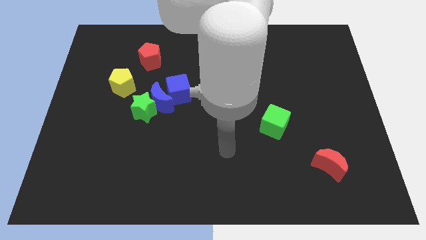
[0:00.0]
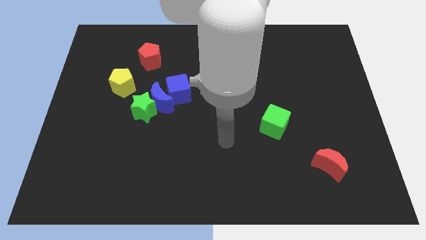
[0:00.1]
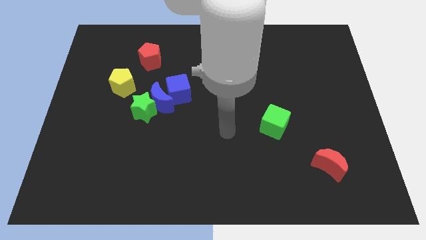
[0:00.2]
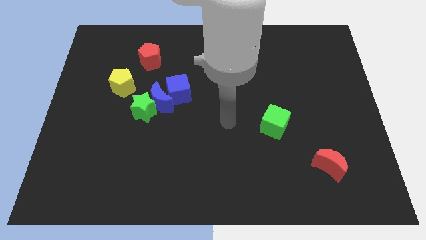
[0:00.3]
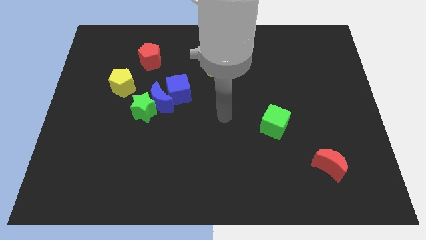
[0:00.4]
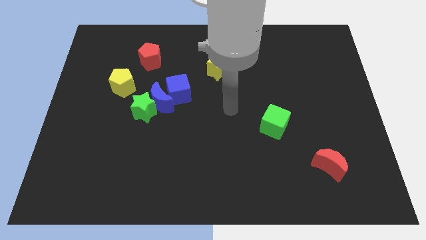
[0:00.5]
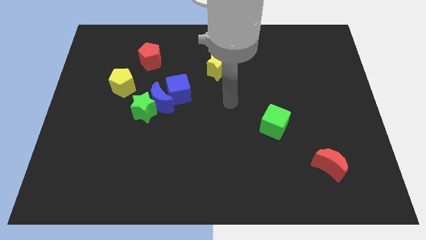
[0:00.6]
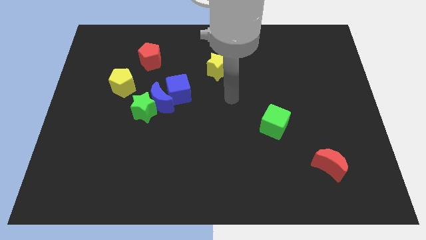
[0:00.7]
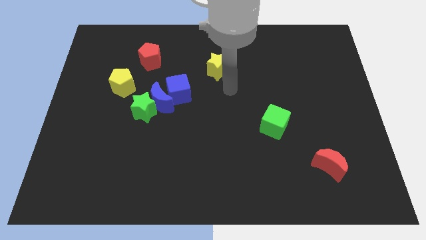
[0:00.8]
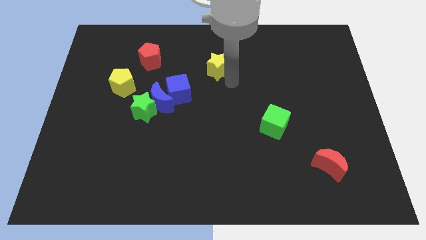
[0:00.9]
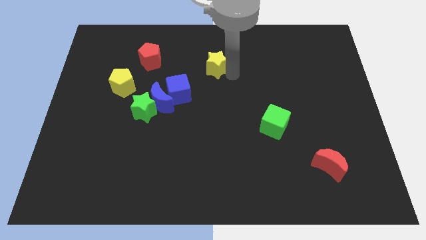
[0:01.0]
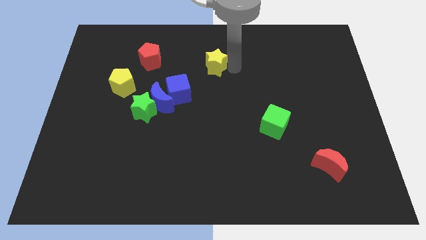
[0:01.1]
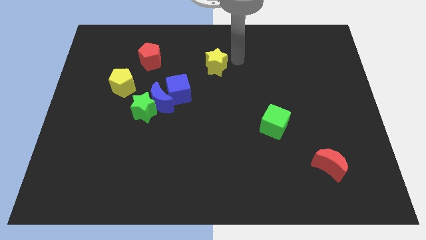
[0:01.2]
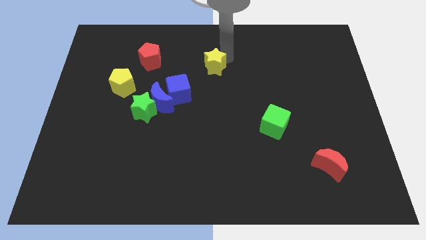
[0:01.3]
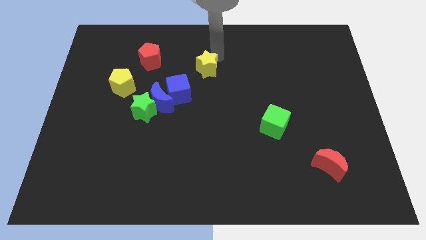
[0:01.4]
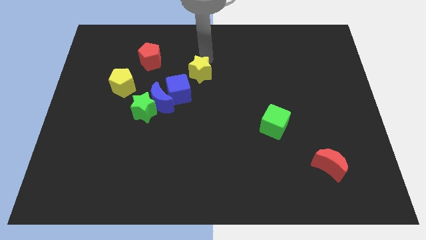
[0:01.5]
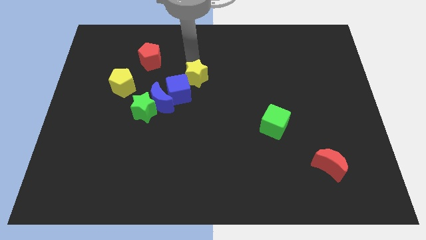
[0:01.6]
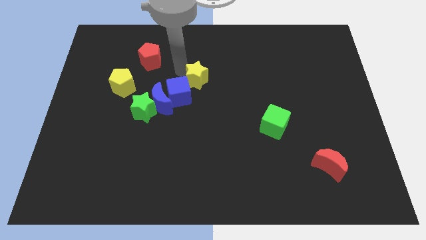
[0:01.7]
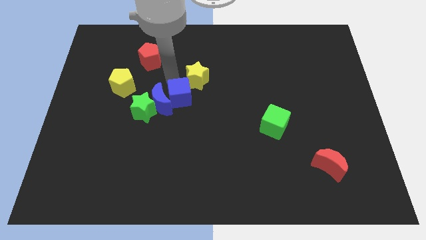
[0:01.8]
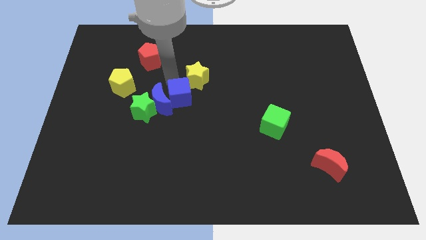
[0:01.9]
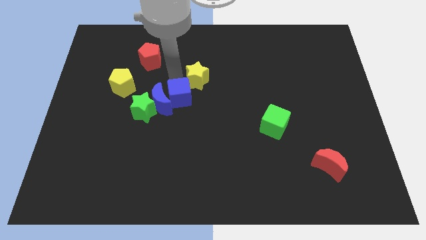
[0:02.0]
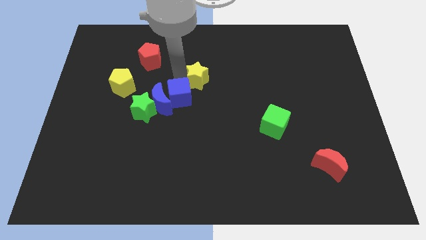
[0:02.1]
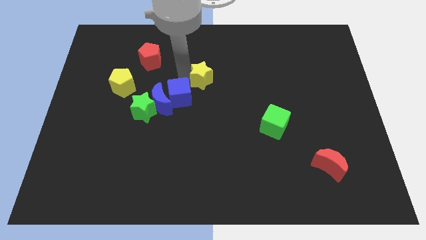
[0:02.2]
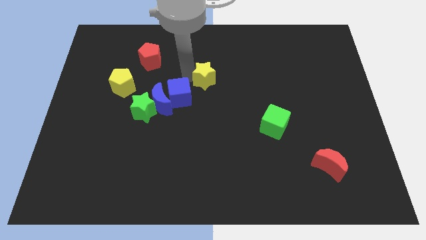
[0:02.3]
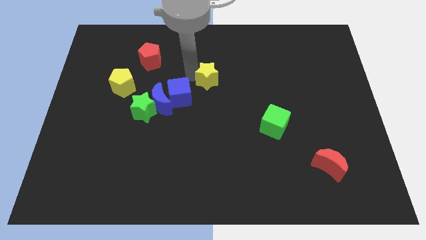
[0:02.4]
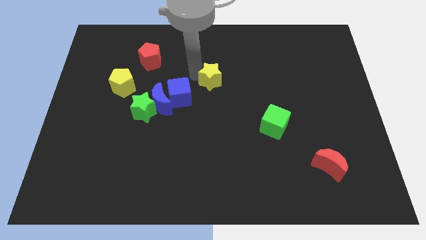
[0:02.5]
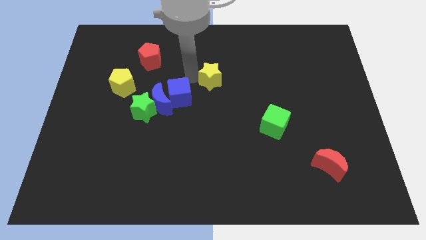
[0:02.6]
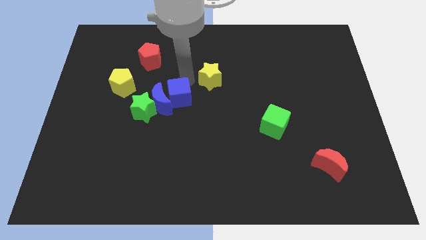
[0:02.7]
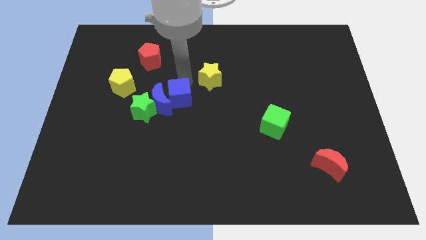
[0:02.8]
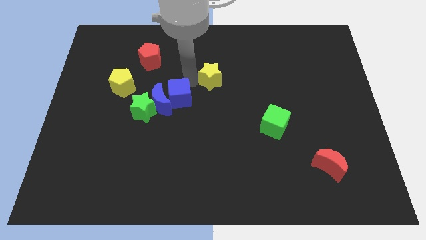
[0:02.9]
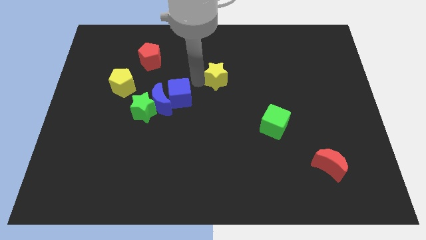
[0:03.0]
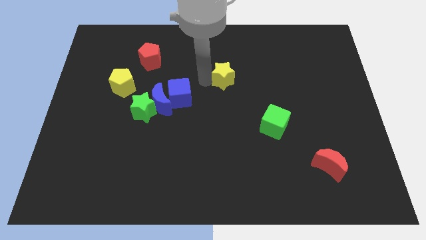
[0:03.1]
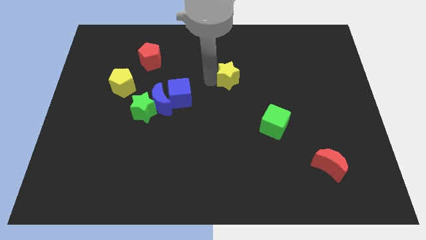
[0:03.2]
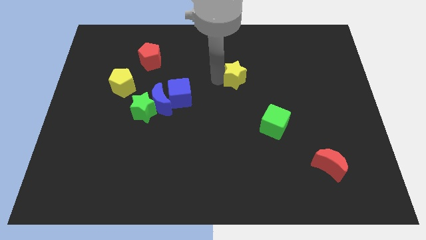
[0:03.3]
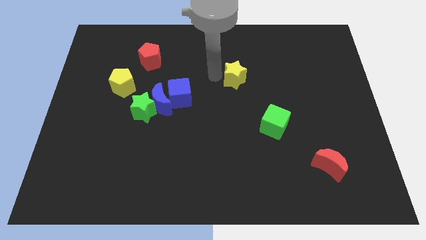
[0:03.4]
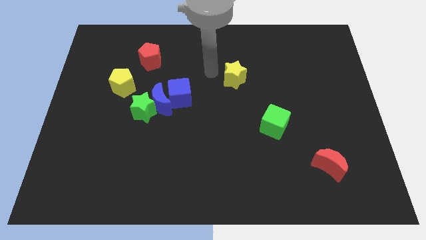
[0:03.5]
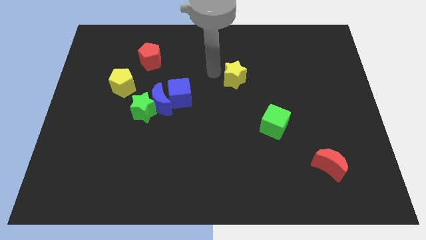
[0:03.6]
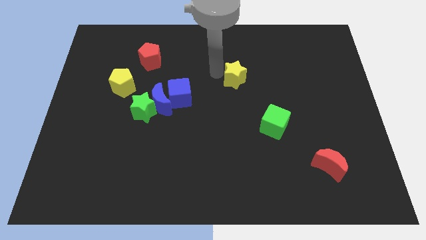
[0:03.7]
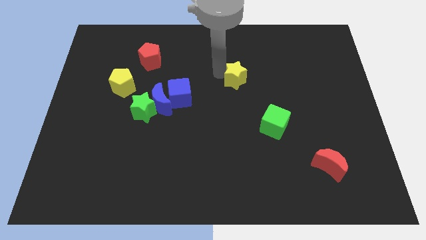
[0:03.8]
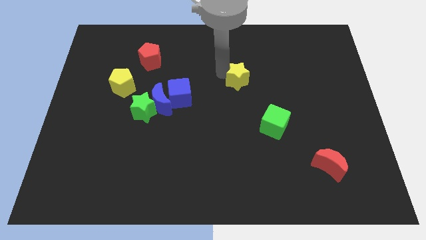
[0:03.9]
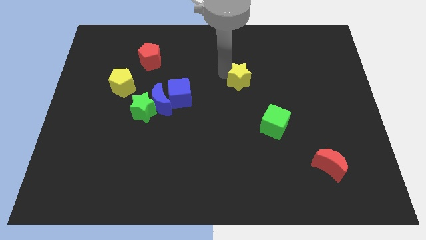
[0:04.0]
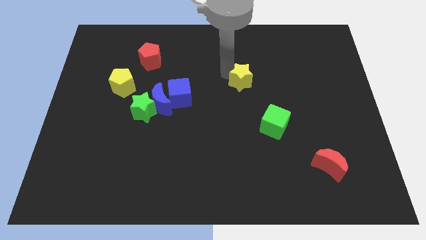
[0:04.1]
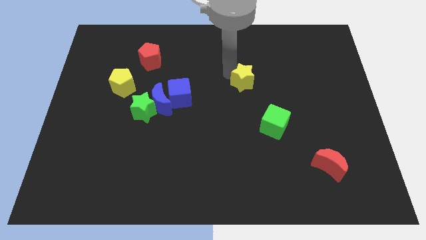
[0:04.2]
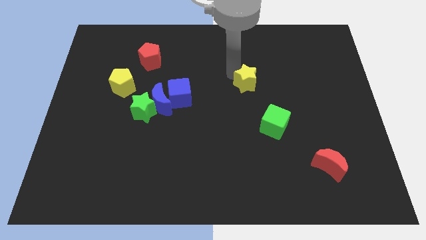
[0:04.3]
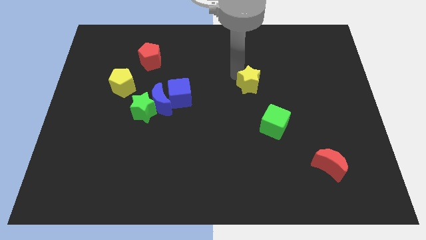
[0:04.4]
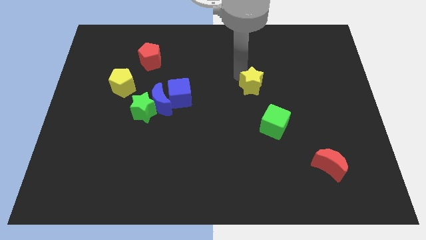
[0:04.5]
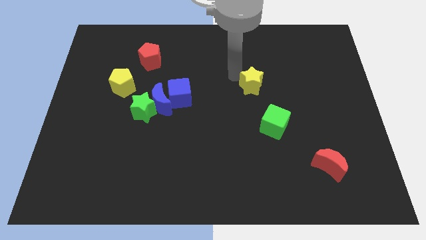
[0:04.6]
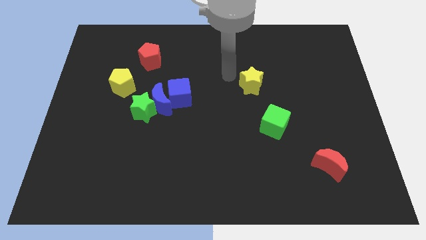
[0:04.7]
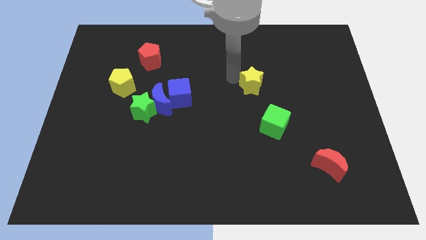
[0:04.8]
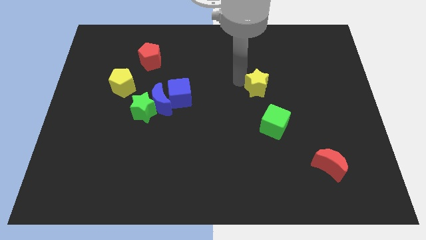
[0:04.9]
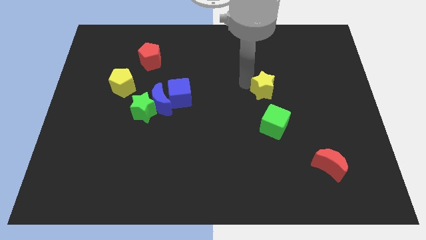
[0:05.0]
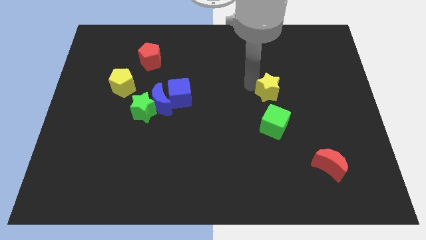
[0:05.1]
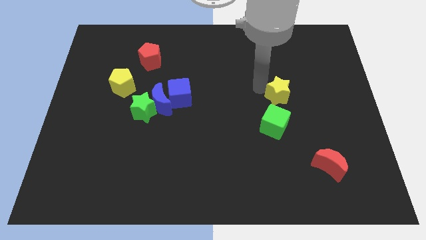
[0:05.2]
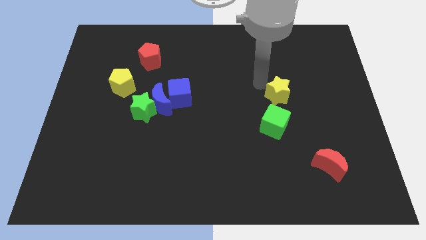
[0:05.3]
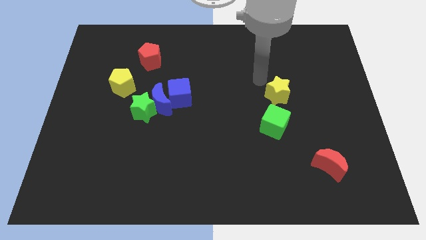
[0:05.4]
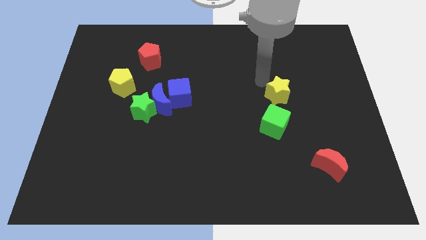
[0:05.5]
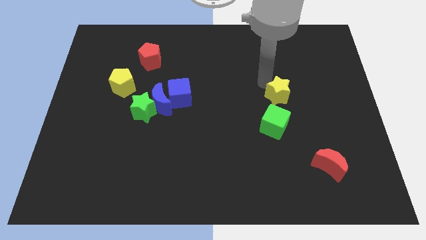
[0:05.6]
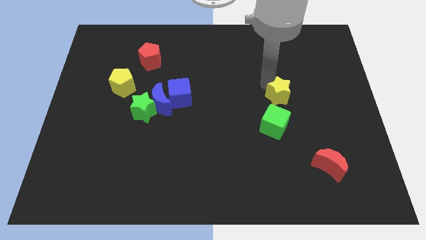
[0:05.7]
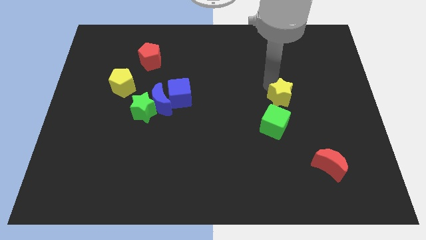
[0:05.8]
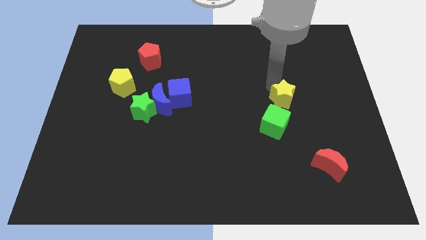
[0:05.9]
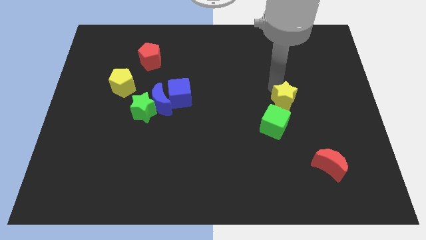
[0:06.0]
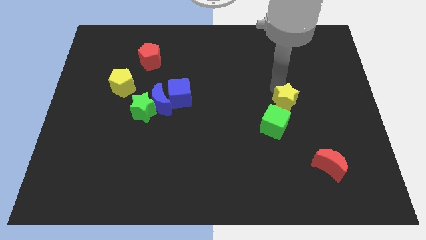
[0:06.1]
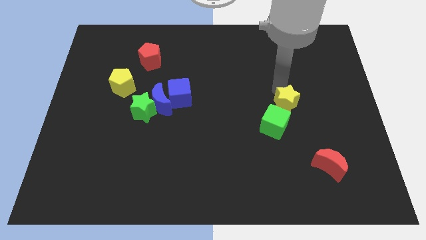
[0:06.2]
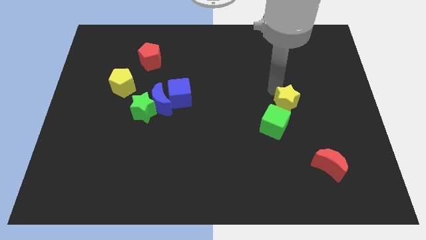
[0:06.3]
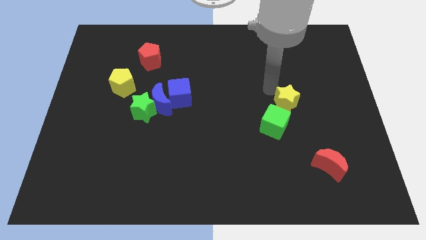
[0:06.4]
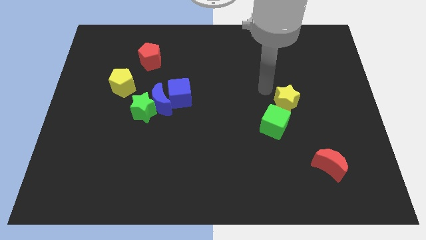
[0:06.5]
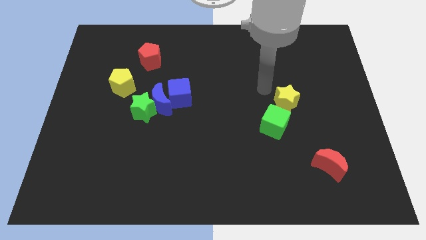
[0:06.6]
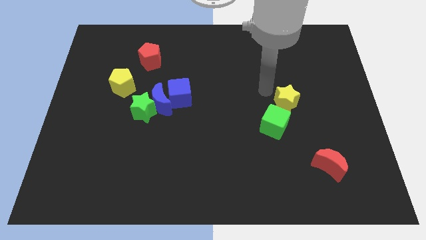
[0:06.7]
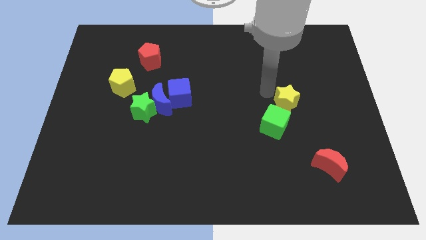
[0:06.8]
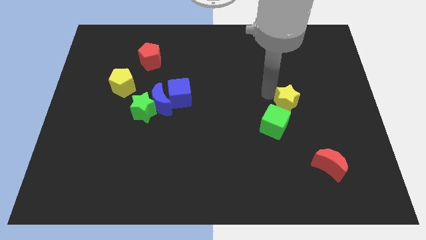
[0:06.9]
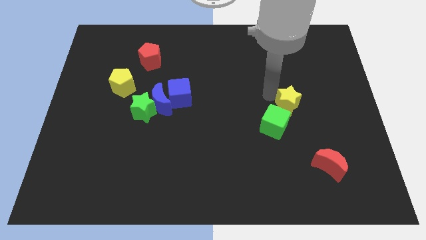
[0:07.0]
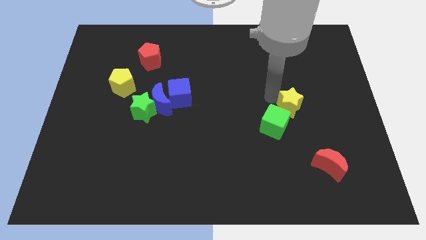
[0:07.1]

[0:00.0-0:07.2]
slide the yellow star downwards and then right

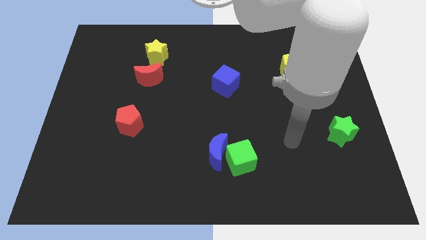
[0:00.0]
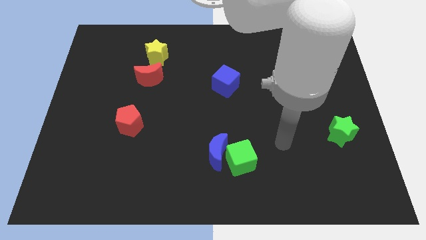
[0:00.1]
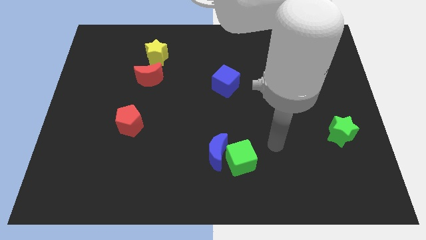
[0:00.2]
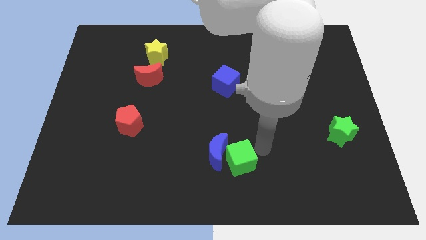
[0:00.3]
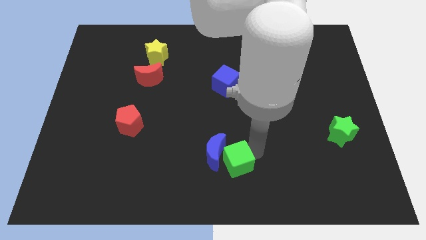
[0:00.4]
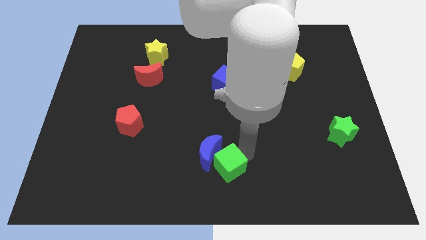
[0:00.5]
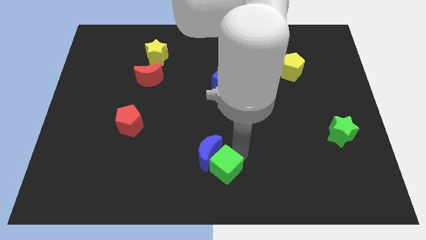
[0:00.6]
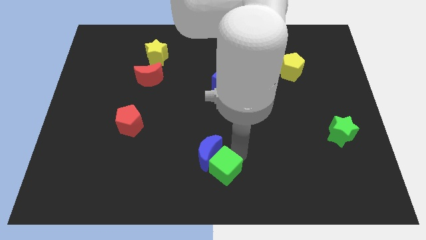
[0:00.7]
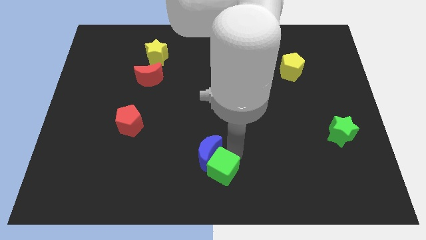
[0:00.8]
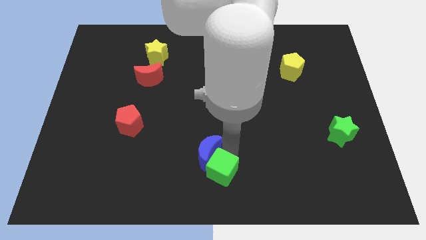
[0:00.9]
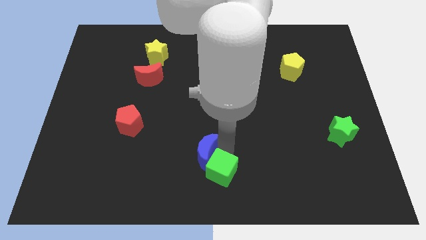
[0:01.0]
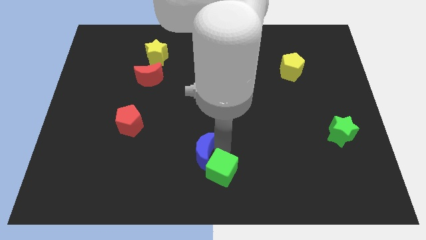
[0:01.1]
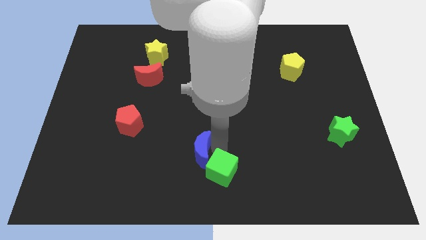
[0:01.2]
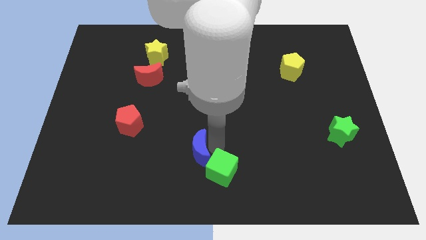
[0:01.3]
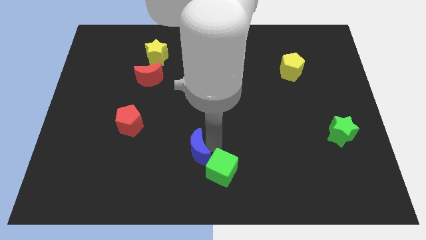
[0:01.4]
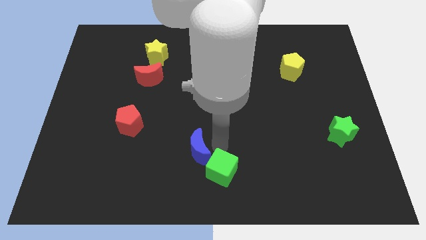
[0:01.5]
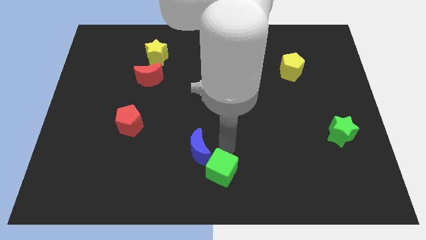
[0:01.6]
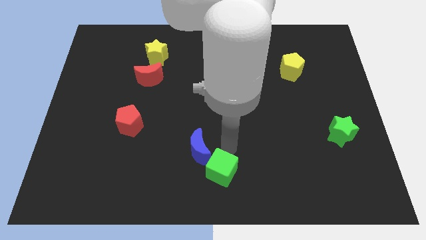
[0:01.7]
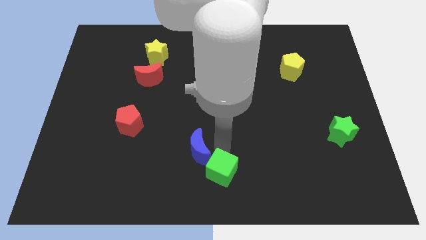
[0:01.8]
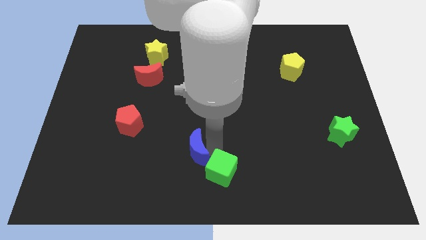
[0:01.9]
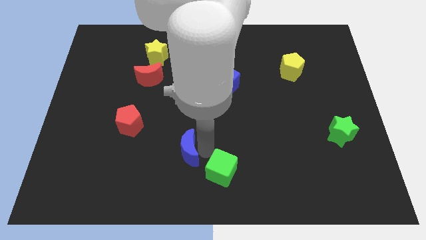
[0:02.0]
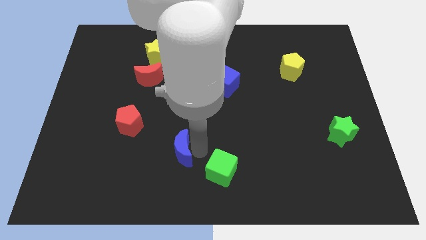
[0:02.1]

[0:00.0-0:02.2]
slide the blue moon somewhat to the left
